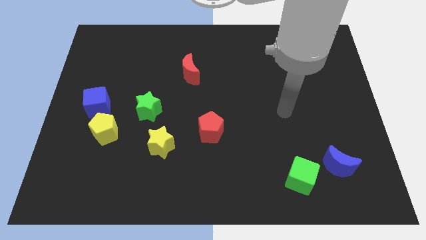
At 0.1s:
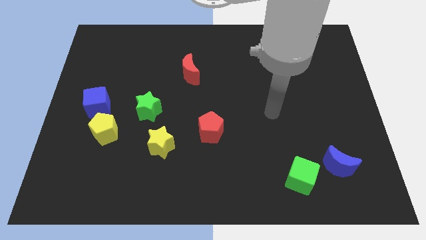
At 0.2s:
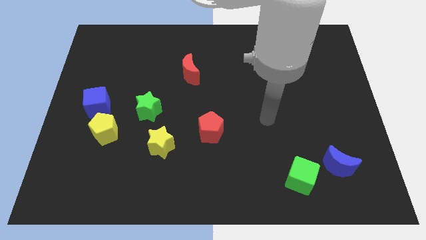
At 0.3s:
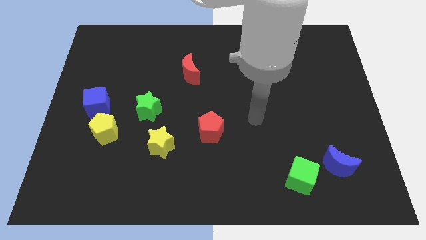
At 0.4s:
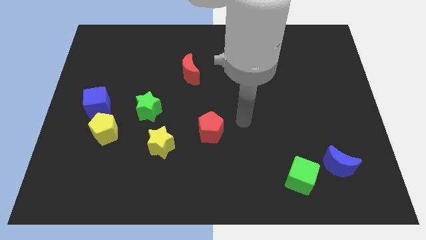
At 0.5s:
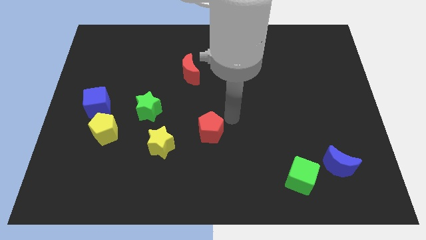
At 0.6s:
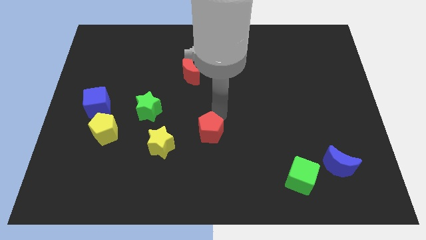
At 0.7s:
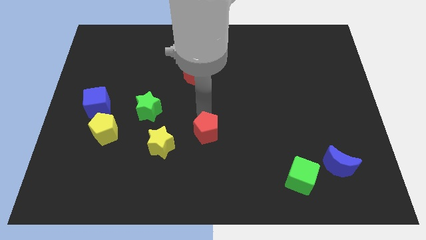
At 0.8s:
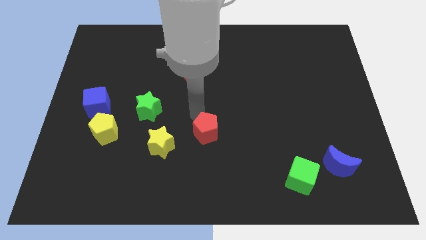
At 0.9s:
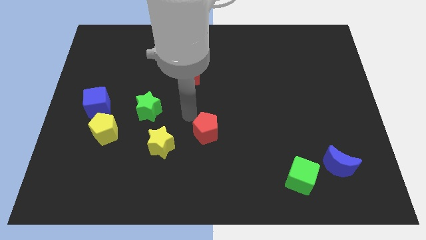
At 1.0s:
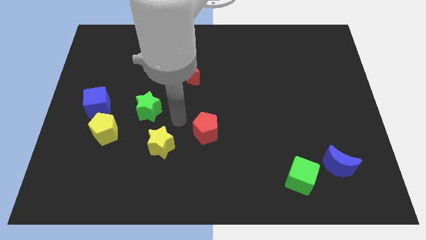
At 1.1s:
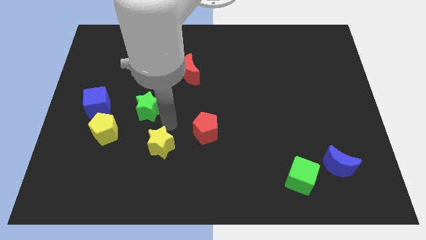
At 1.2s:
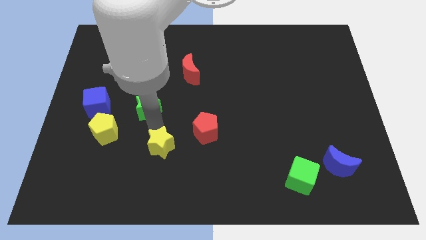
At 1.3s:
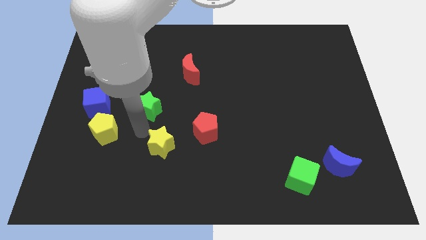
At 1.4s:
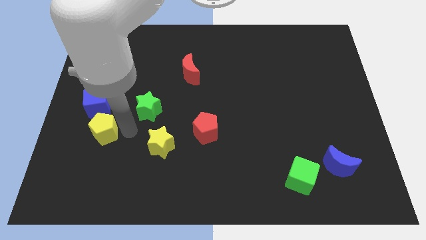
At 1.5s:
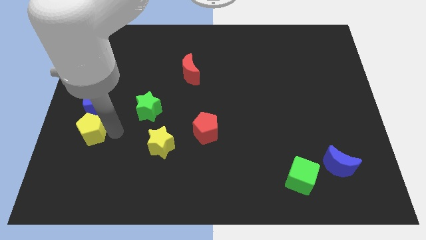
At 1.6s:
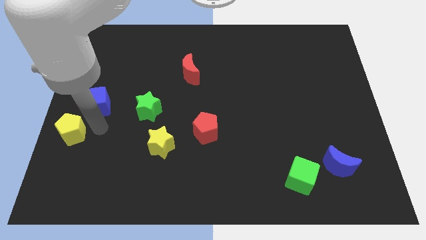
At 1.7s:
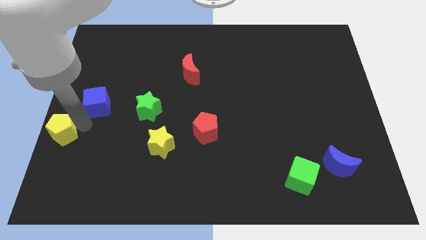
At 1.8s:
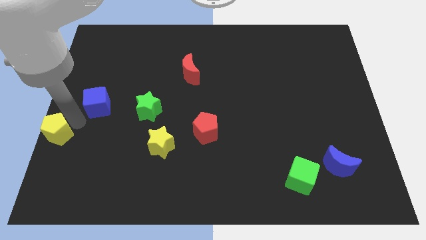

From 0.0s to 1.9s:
separate the blue cube from the yellow pentagon

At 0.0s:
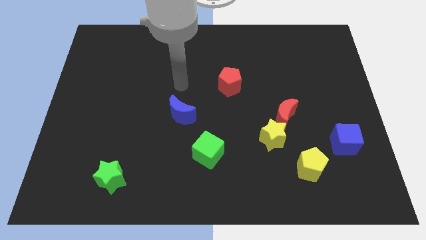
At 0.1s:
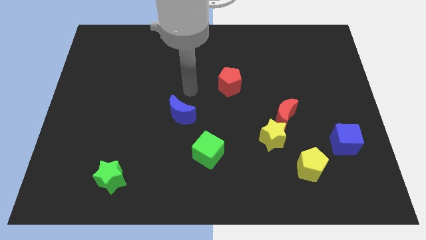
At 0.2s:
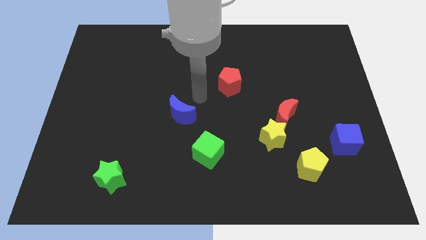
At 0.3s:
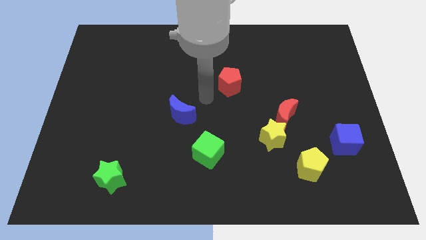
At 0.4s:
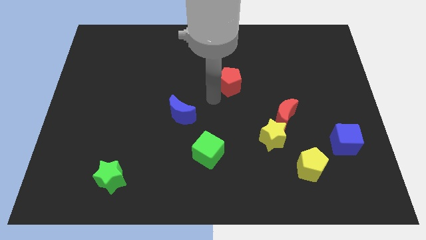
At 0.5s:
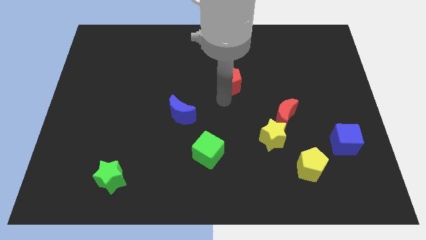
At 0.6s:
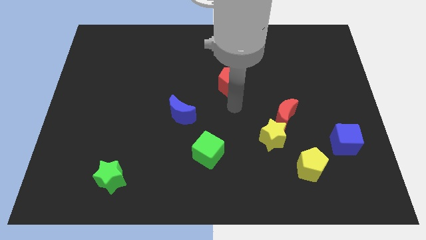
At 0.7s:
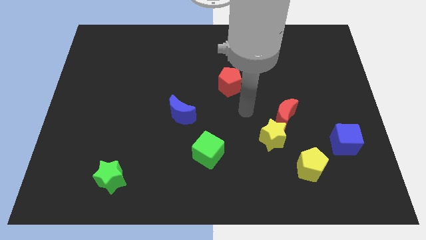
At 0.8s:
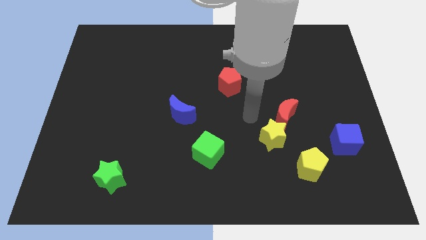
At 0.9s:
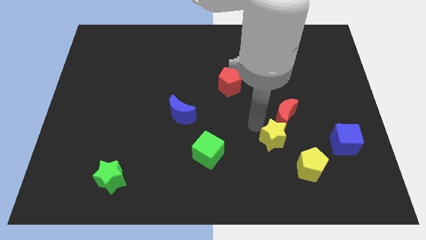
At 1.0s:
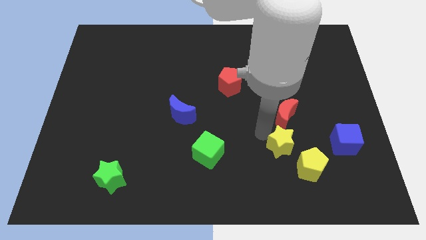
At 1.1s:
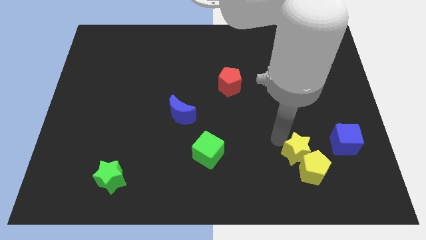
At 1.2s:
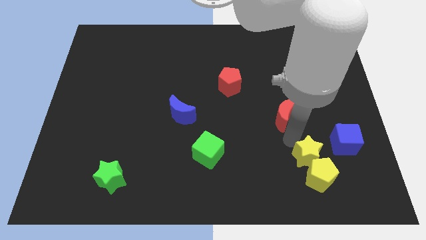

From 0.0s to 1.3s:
pull the red moon apart from the yellow star

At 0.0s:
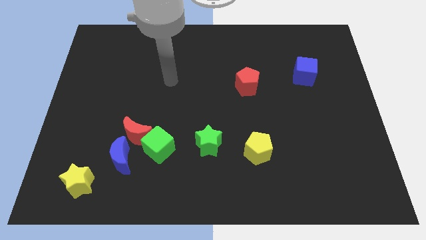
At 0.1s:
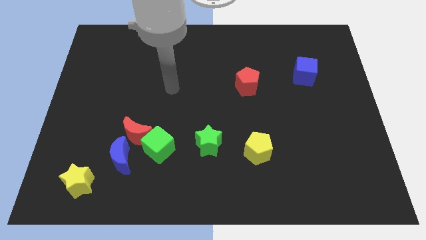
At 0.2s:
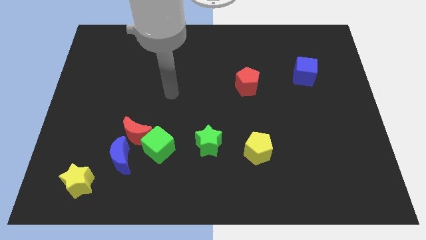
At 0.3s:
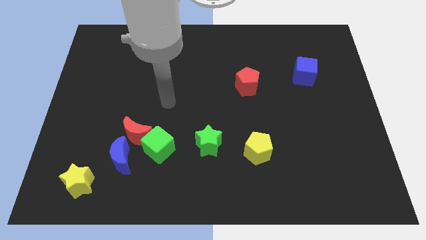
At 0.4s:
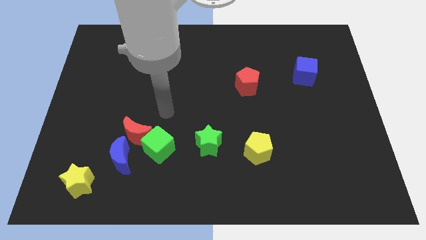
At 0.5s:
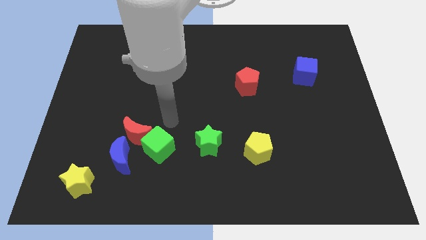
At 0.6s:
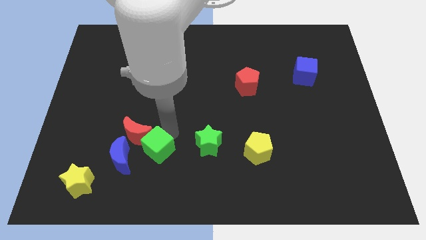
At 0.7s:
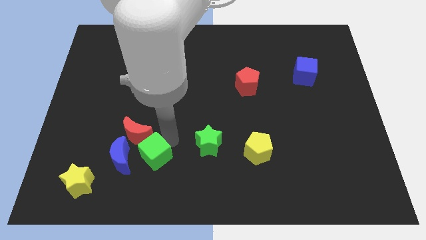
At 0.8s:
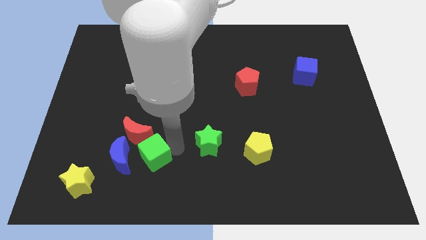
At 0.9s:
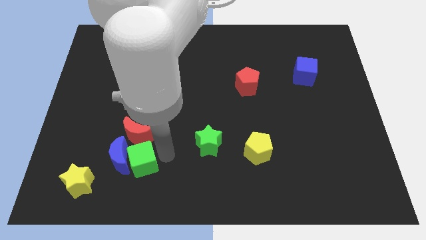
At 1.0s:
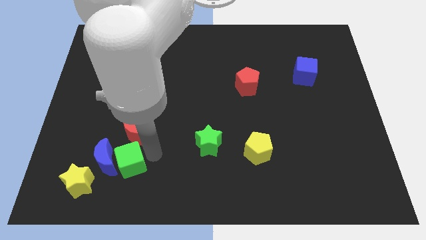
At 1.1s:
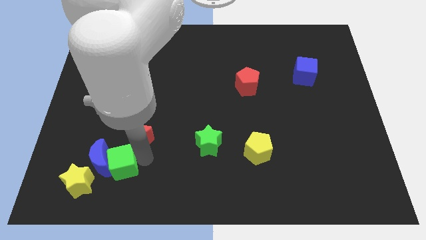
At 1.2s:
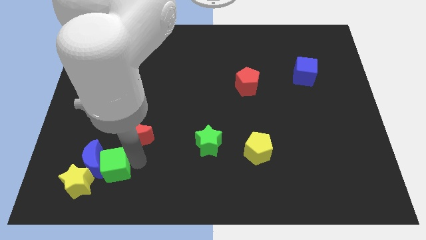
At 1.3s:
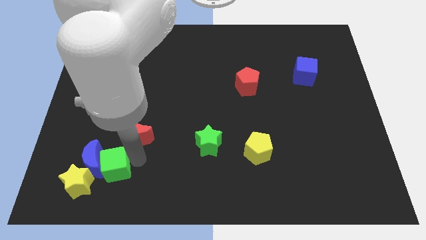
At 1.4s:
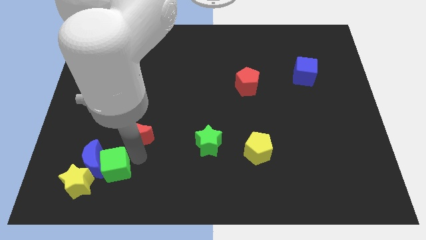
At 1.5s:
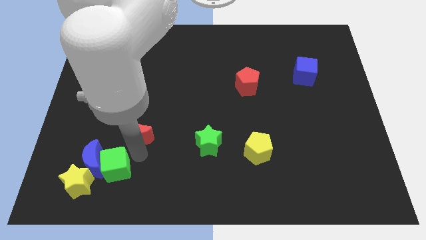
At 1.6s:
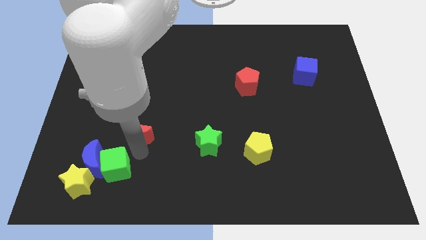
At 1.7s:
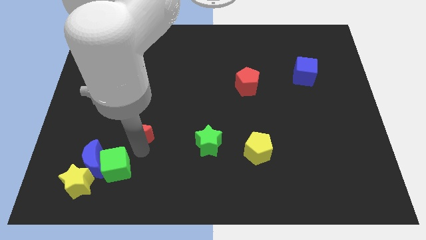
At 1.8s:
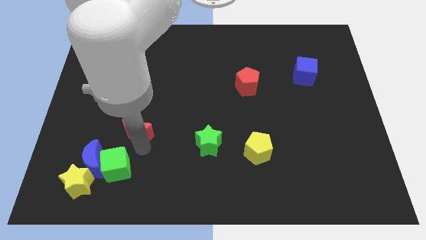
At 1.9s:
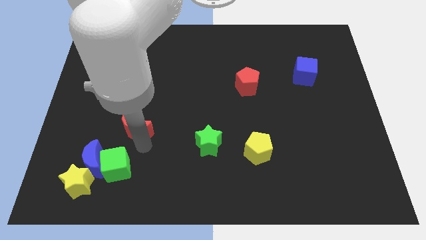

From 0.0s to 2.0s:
pull the red moon apart from the green cube and blue moon

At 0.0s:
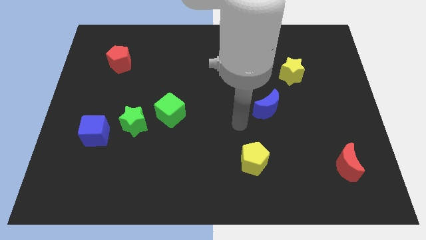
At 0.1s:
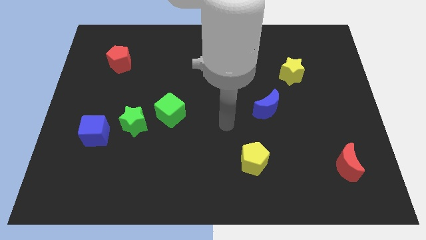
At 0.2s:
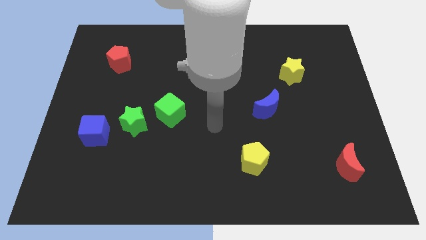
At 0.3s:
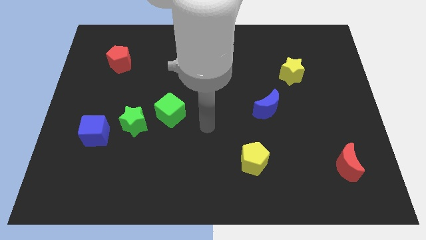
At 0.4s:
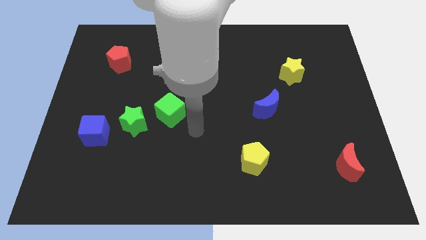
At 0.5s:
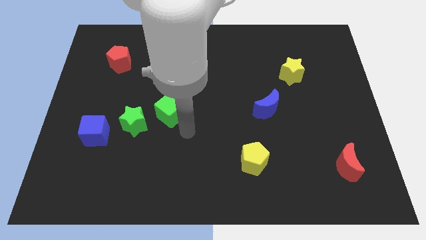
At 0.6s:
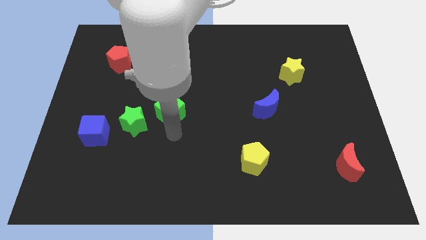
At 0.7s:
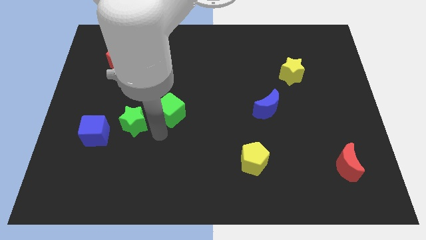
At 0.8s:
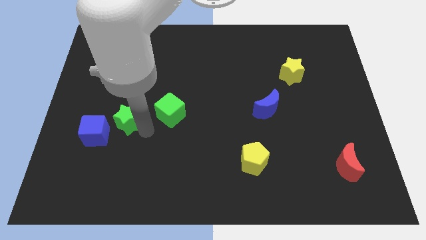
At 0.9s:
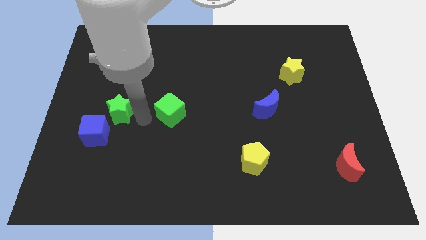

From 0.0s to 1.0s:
separate the green cube from the green star

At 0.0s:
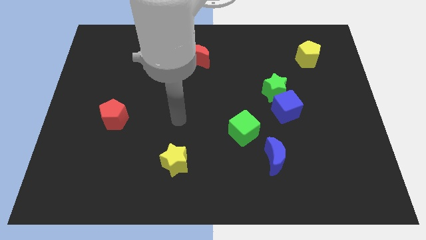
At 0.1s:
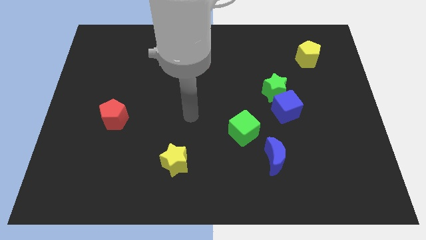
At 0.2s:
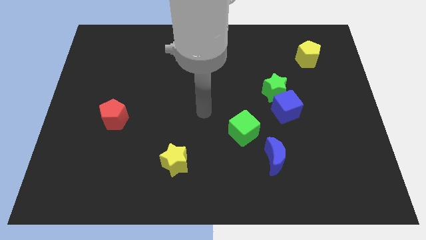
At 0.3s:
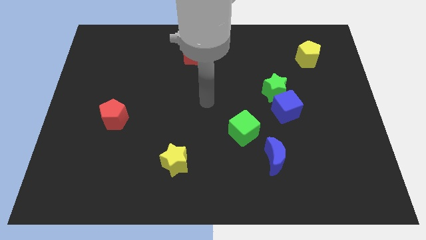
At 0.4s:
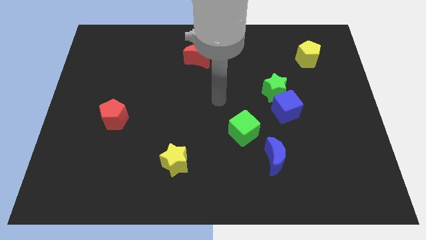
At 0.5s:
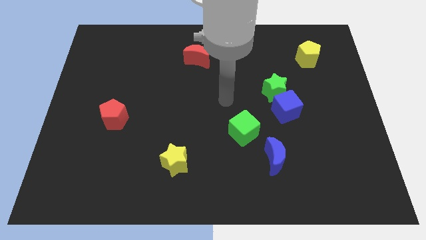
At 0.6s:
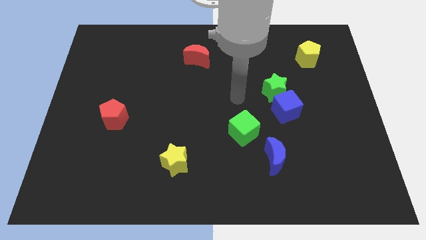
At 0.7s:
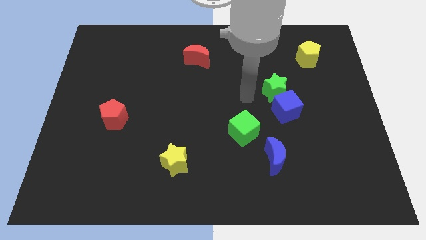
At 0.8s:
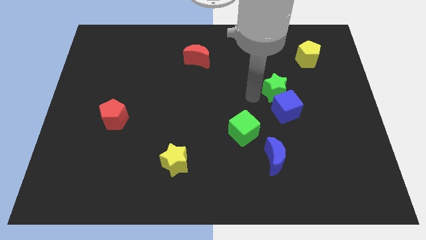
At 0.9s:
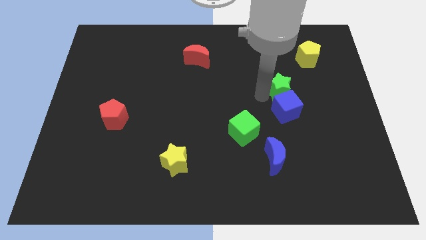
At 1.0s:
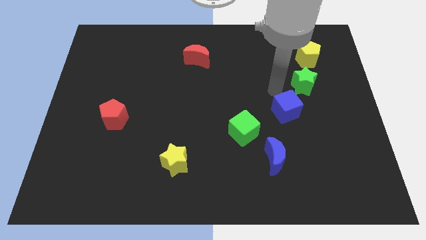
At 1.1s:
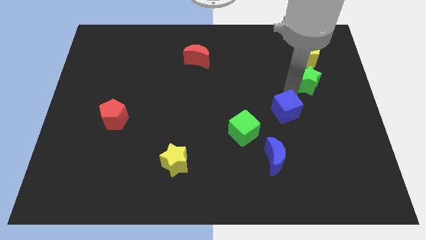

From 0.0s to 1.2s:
separate the blue cube from the green star

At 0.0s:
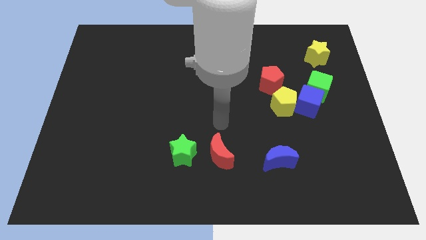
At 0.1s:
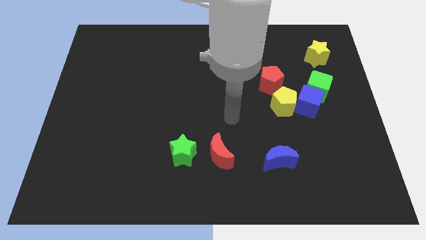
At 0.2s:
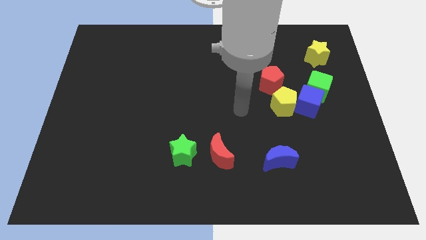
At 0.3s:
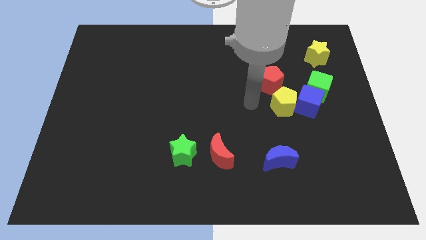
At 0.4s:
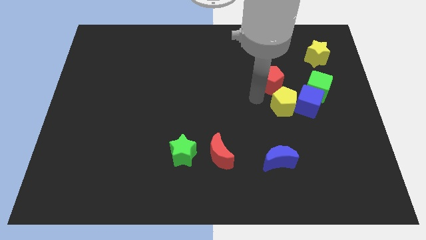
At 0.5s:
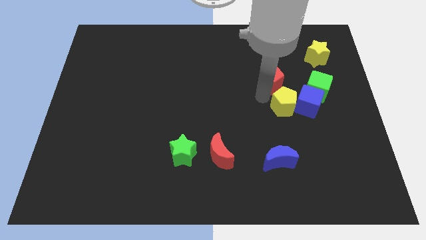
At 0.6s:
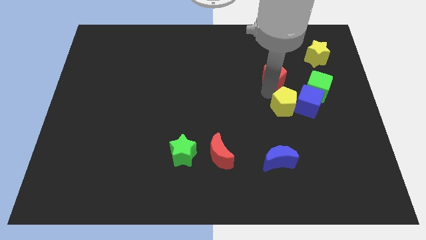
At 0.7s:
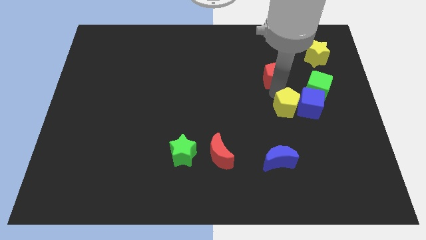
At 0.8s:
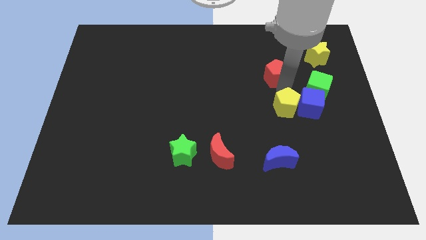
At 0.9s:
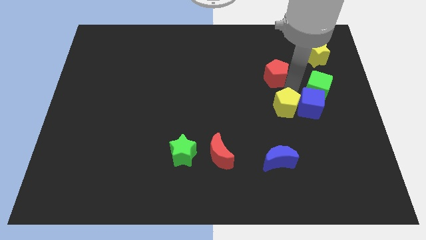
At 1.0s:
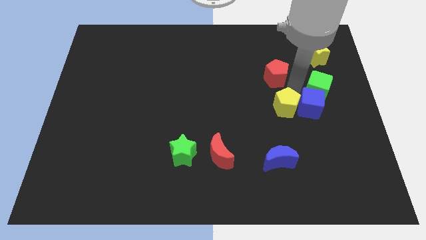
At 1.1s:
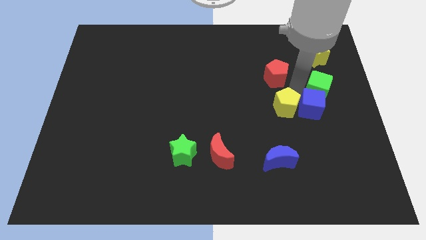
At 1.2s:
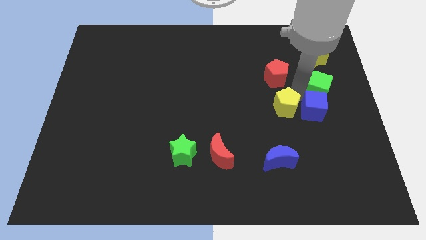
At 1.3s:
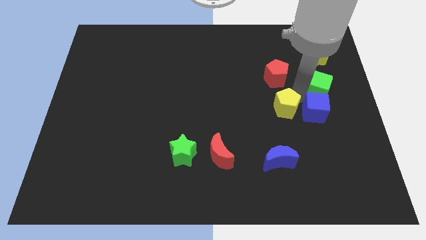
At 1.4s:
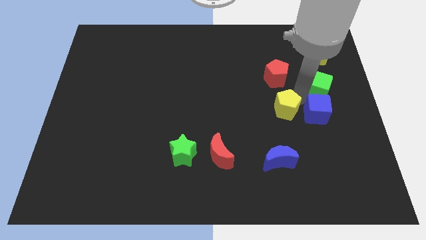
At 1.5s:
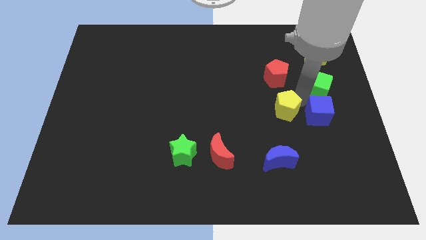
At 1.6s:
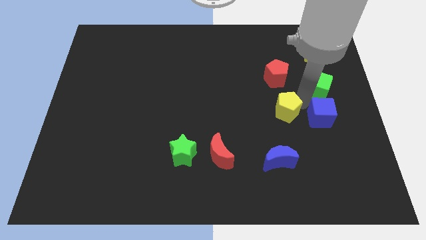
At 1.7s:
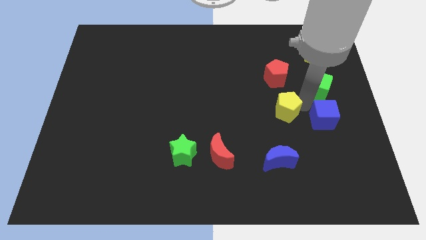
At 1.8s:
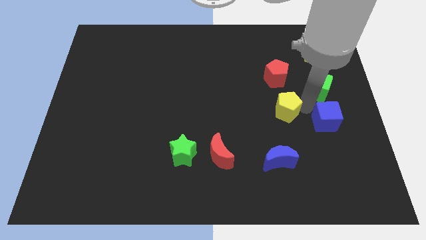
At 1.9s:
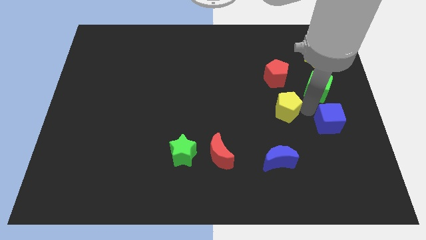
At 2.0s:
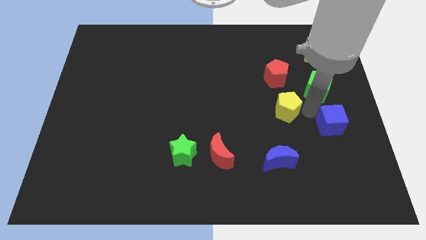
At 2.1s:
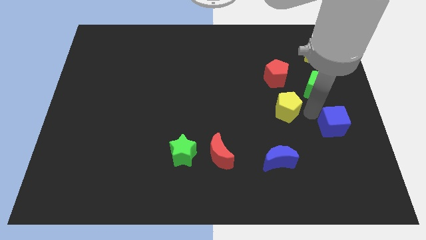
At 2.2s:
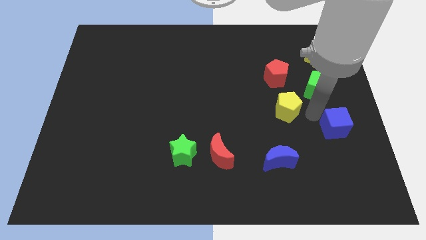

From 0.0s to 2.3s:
move the blue cube away from the green cube and yellow pentagon
